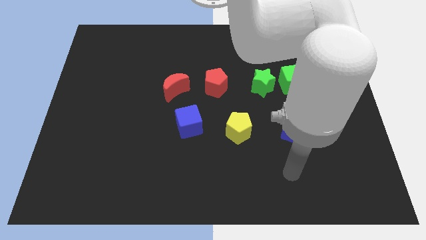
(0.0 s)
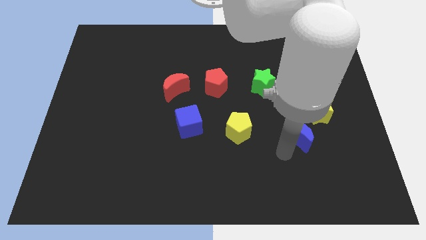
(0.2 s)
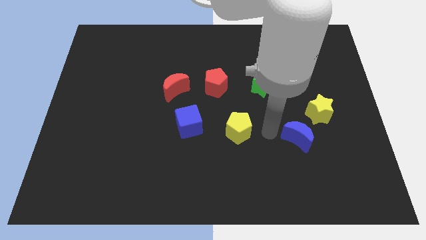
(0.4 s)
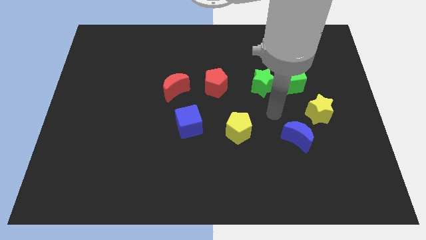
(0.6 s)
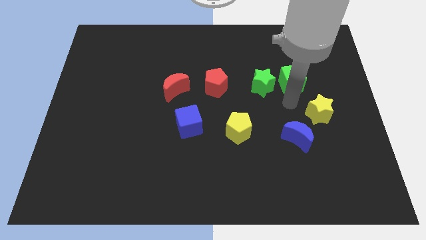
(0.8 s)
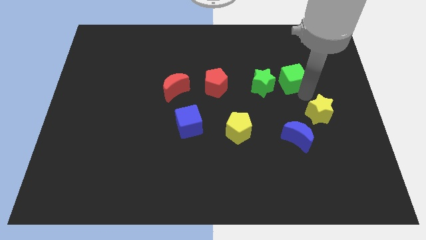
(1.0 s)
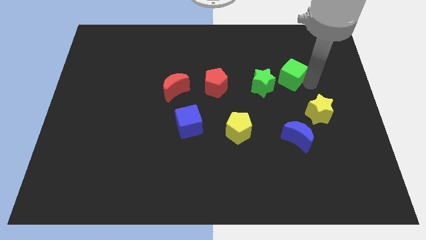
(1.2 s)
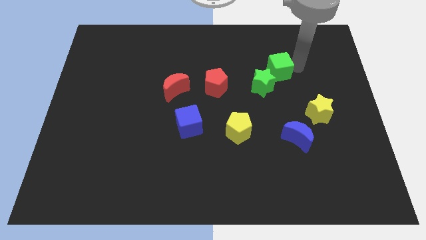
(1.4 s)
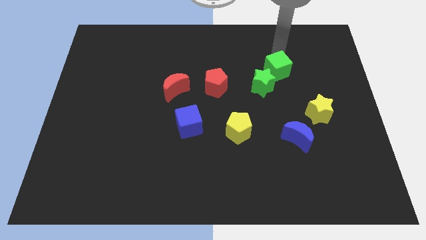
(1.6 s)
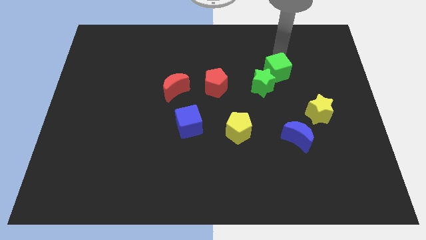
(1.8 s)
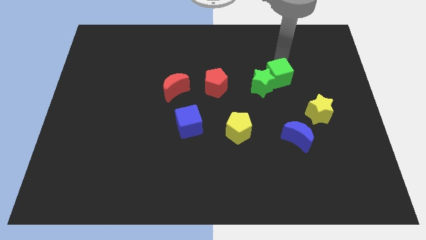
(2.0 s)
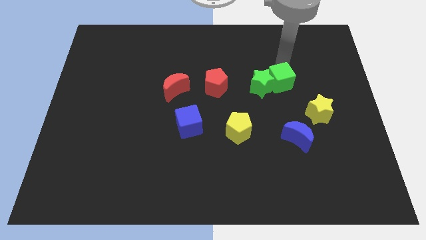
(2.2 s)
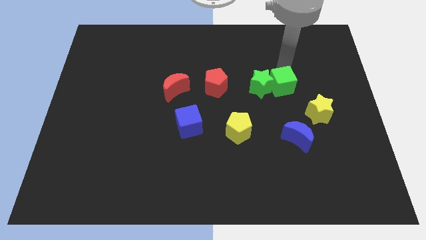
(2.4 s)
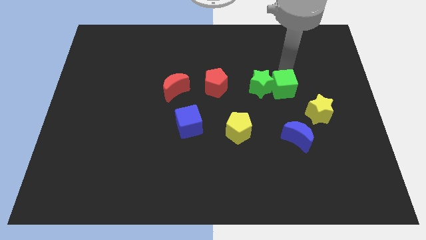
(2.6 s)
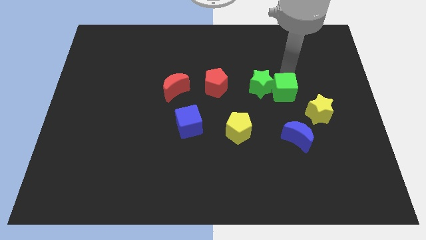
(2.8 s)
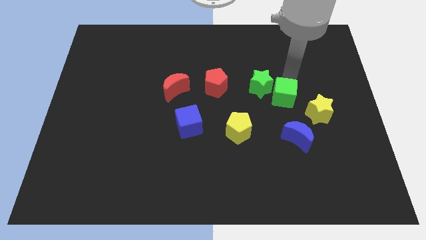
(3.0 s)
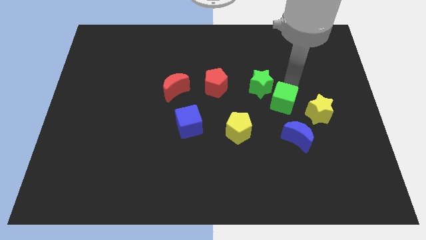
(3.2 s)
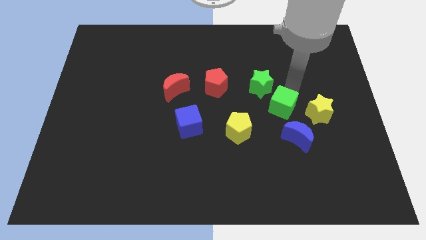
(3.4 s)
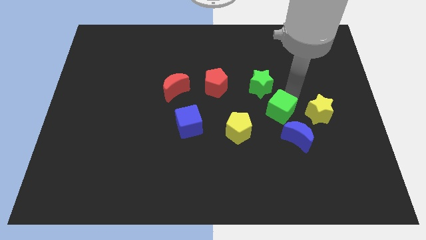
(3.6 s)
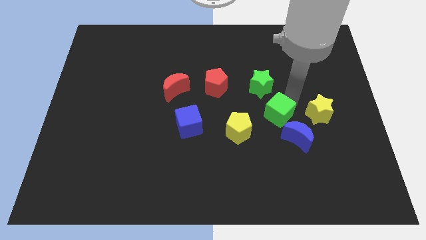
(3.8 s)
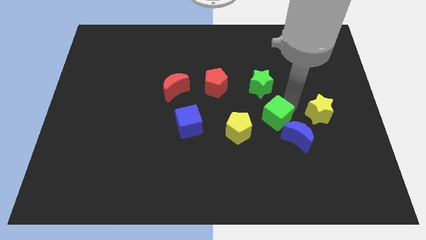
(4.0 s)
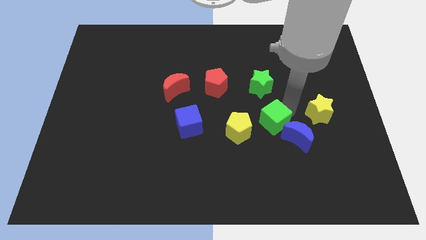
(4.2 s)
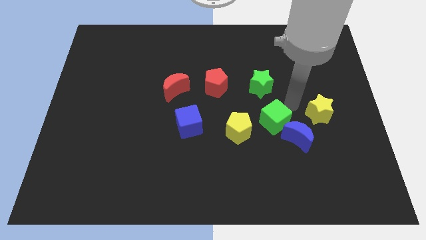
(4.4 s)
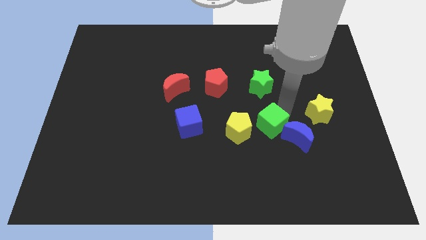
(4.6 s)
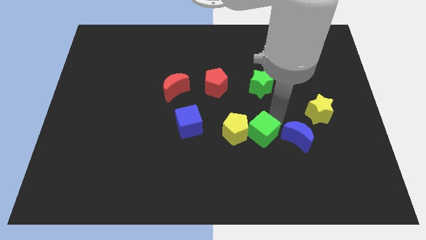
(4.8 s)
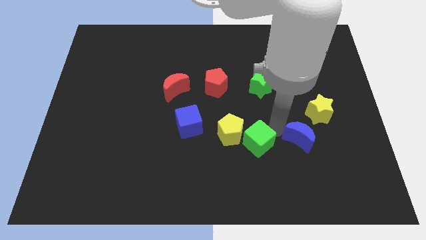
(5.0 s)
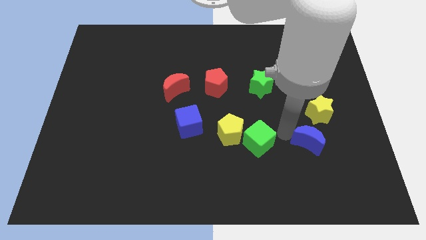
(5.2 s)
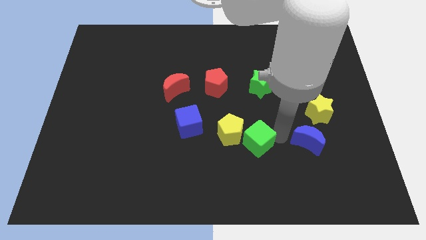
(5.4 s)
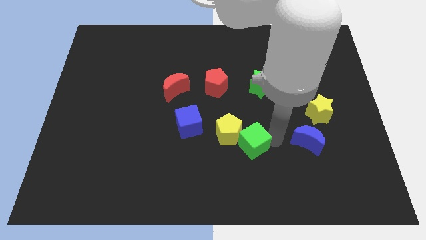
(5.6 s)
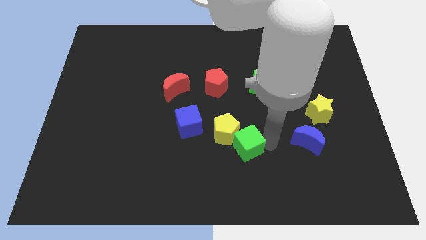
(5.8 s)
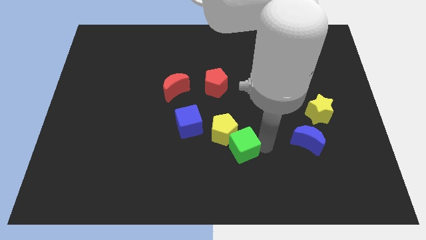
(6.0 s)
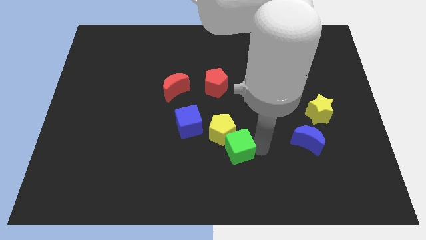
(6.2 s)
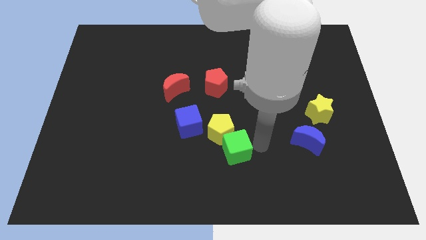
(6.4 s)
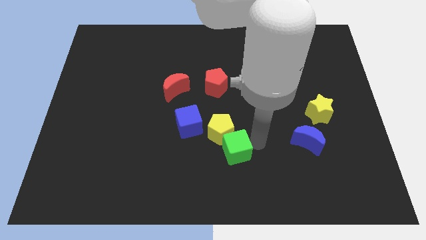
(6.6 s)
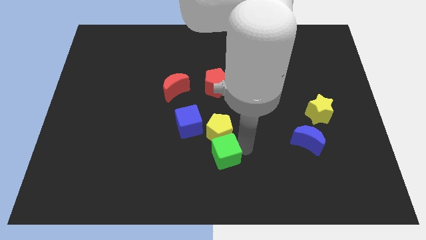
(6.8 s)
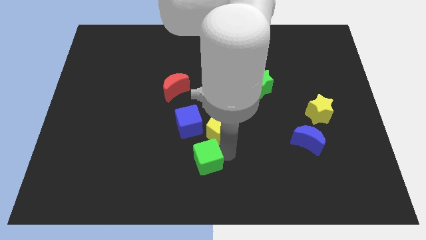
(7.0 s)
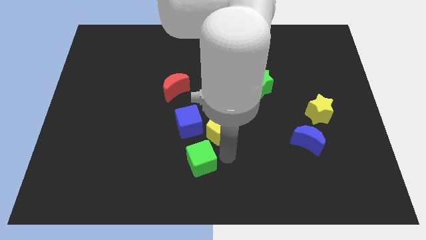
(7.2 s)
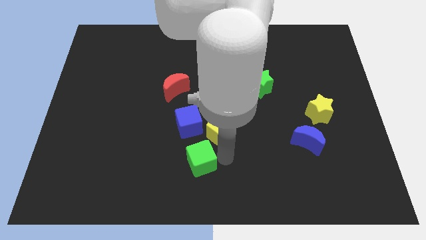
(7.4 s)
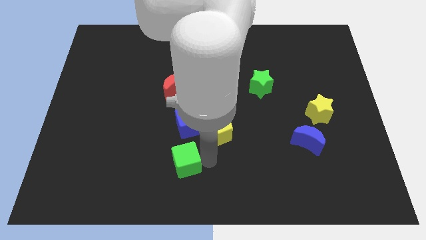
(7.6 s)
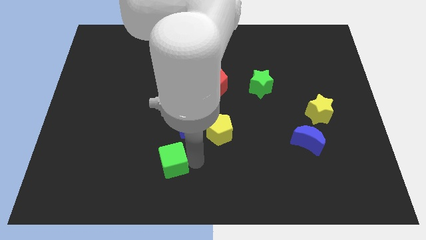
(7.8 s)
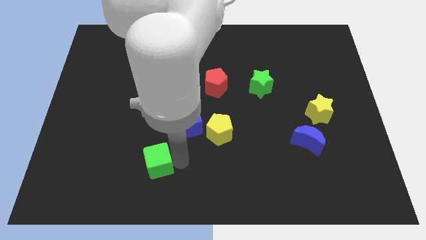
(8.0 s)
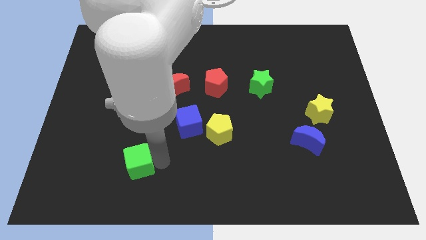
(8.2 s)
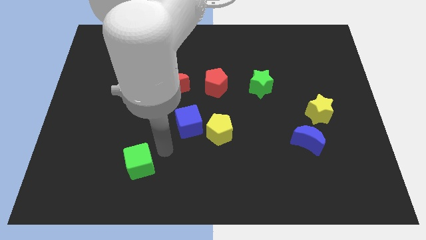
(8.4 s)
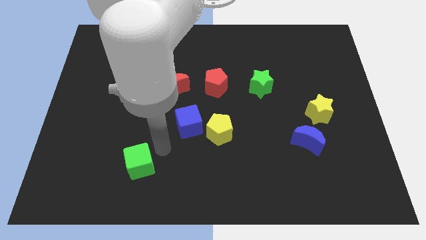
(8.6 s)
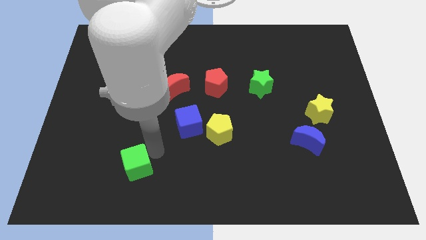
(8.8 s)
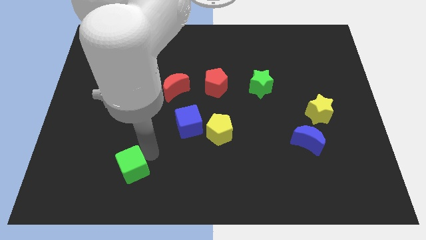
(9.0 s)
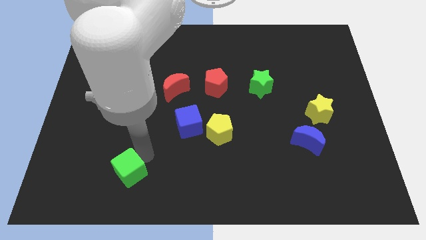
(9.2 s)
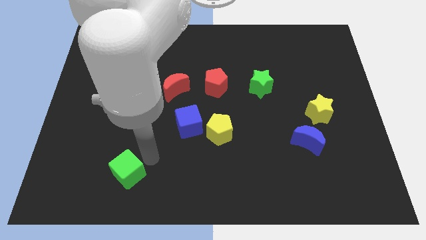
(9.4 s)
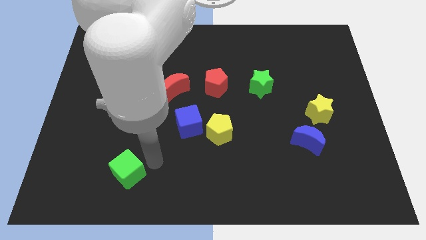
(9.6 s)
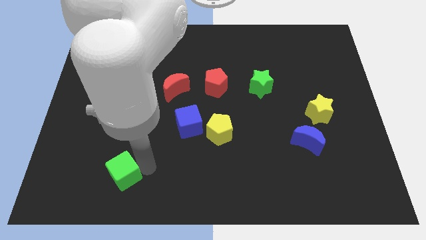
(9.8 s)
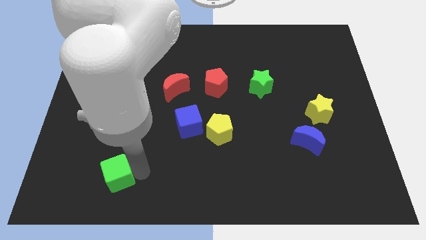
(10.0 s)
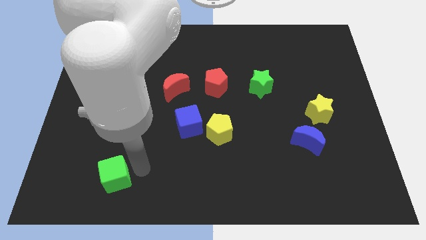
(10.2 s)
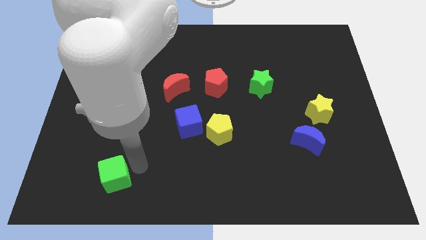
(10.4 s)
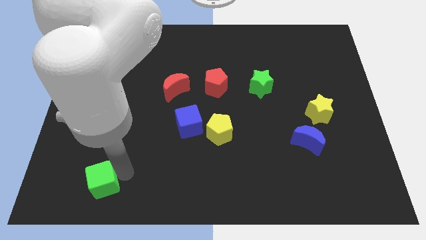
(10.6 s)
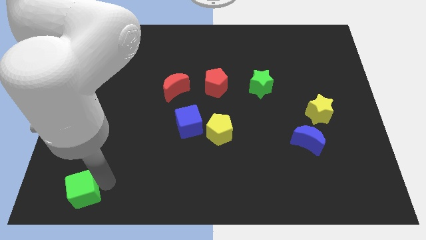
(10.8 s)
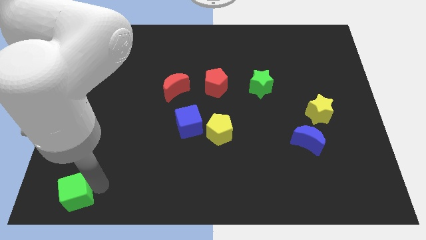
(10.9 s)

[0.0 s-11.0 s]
push the green cube to the bottom left corner
